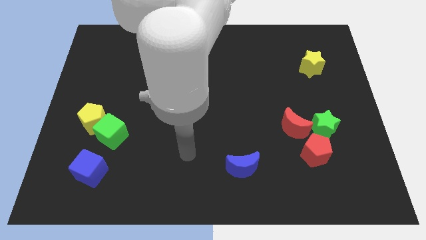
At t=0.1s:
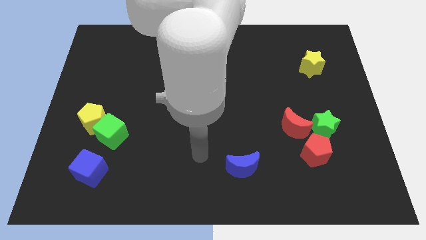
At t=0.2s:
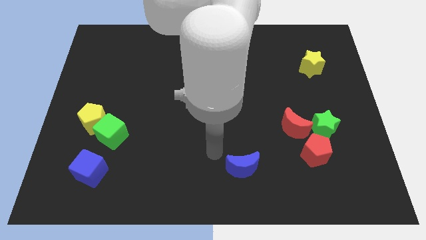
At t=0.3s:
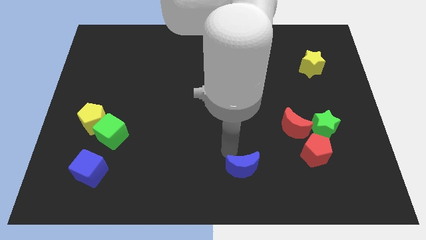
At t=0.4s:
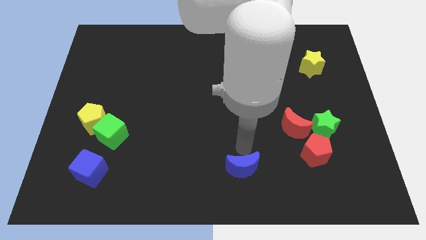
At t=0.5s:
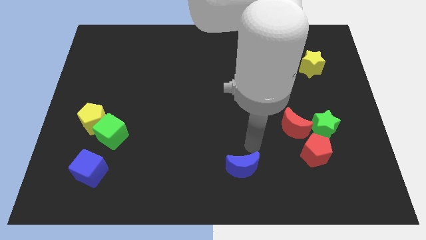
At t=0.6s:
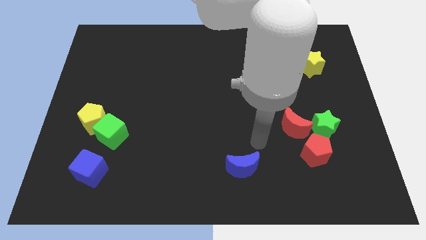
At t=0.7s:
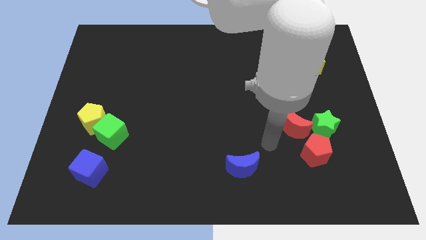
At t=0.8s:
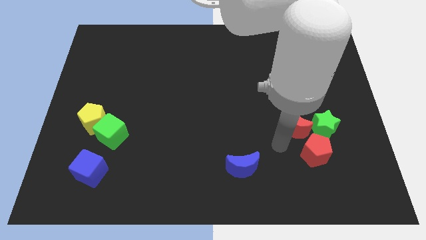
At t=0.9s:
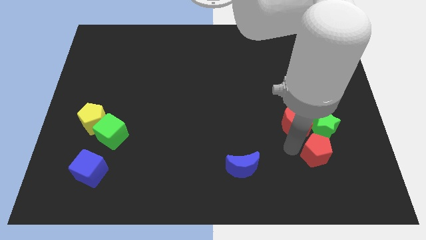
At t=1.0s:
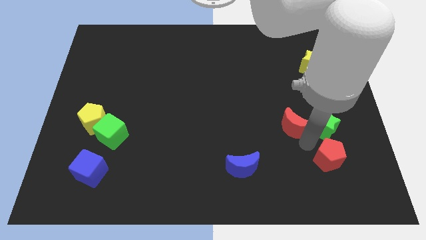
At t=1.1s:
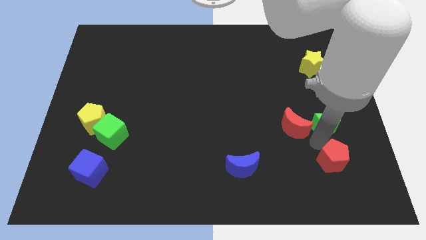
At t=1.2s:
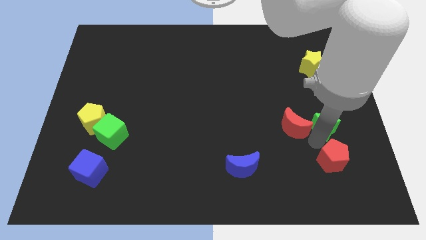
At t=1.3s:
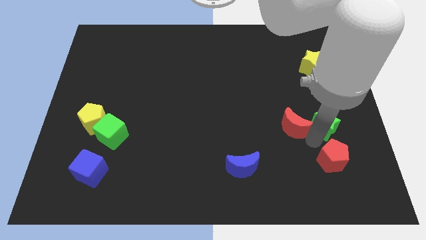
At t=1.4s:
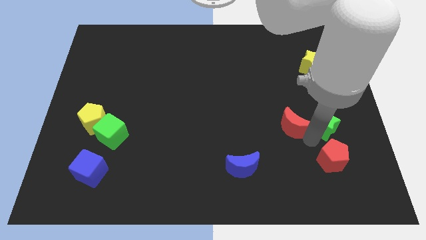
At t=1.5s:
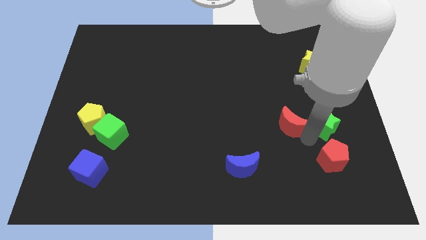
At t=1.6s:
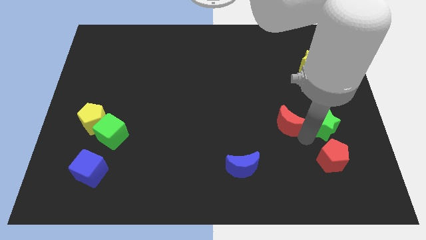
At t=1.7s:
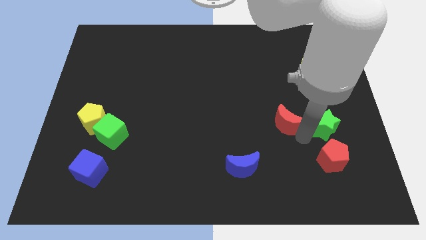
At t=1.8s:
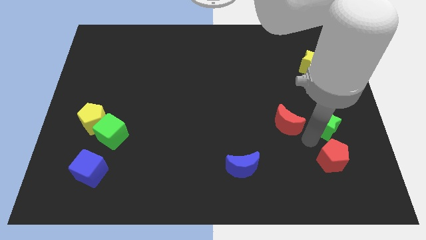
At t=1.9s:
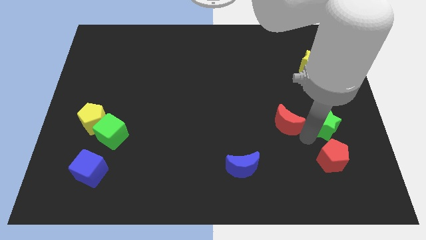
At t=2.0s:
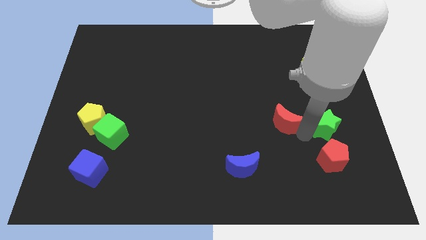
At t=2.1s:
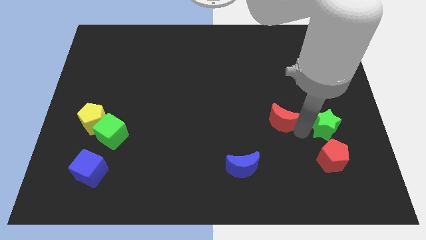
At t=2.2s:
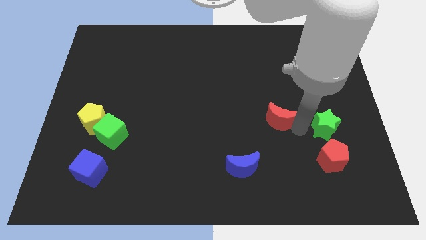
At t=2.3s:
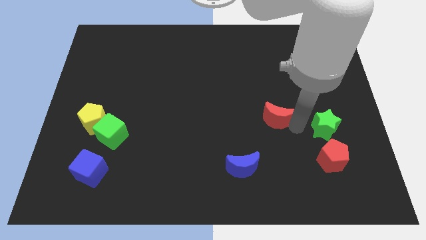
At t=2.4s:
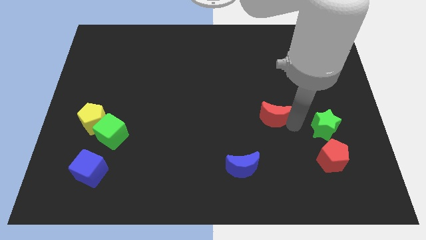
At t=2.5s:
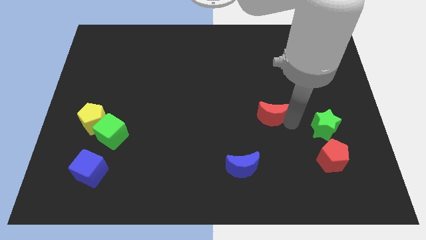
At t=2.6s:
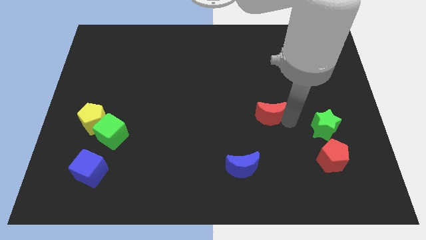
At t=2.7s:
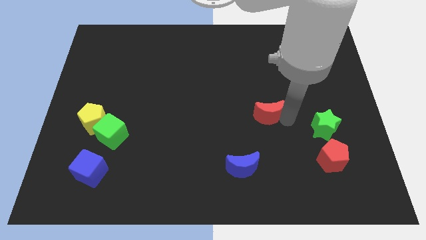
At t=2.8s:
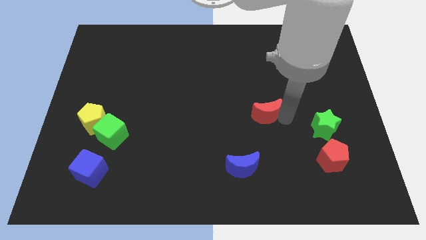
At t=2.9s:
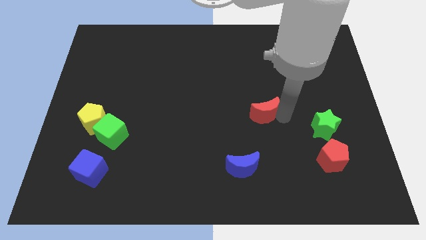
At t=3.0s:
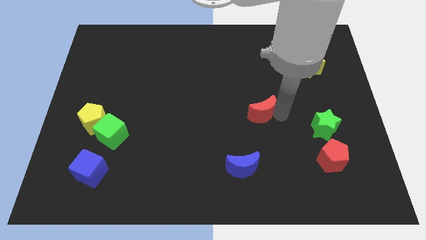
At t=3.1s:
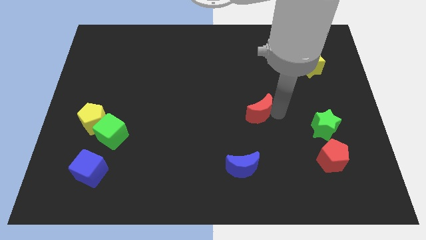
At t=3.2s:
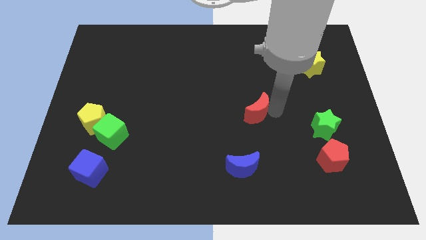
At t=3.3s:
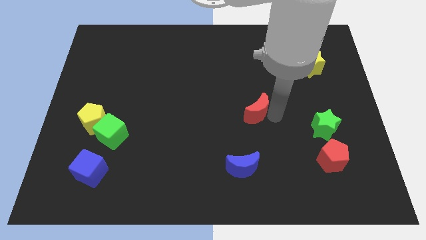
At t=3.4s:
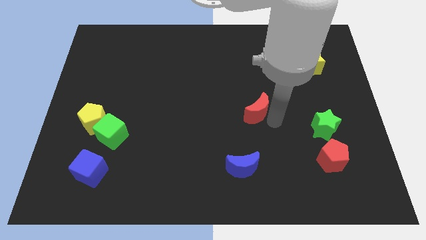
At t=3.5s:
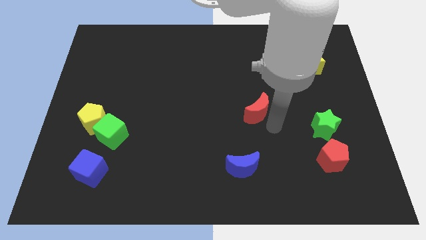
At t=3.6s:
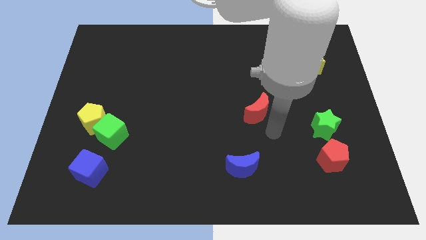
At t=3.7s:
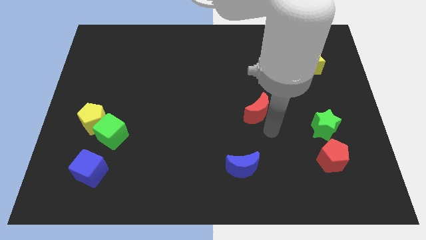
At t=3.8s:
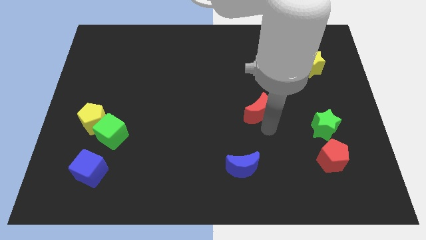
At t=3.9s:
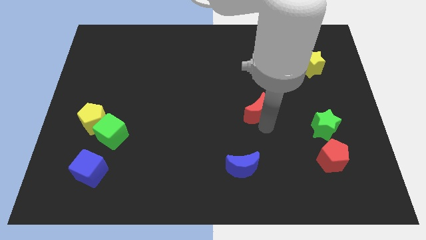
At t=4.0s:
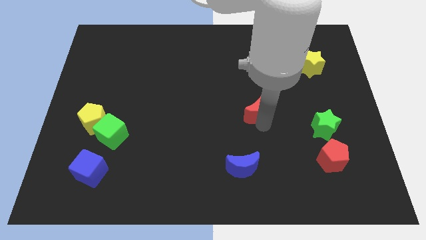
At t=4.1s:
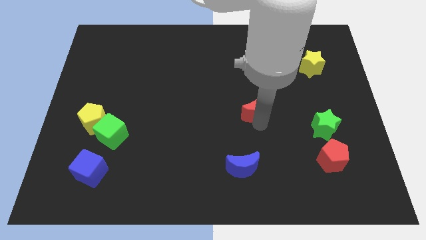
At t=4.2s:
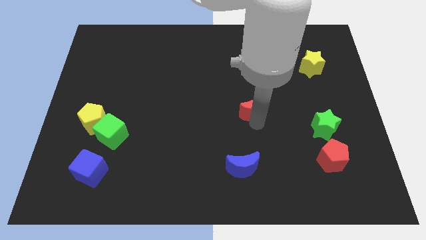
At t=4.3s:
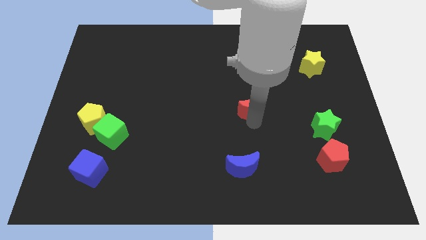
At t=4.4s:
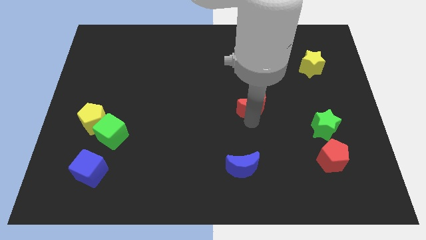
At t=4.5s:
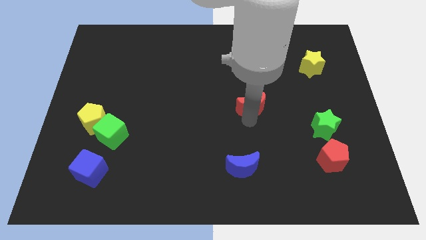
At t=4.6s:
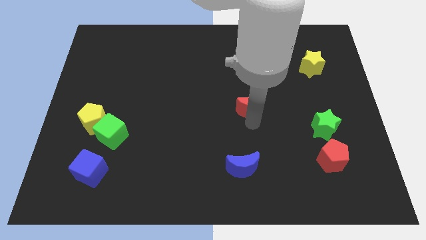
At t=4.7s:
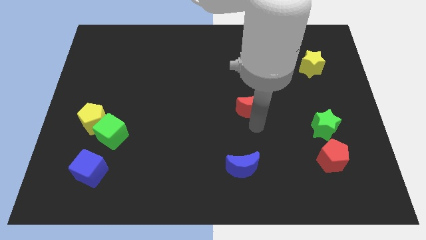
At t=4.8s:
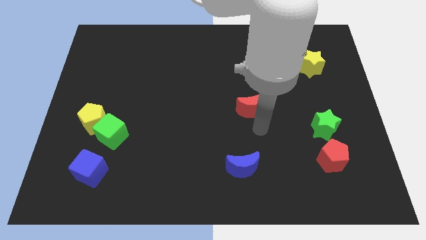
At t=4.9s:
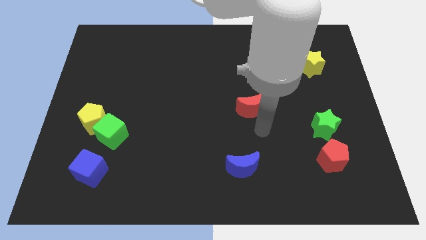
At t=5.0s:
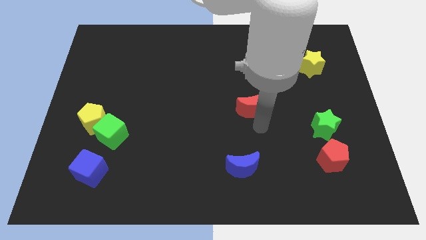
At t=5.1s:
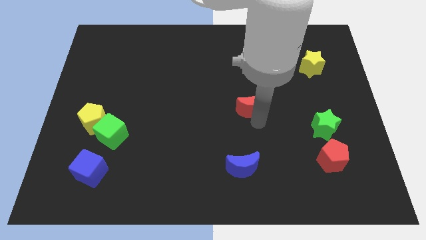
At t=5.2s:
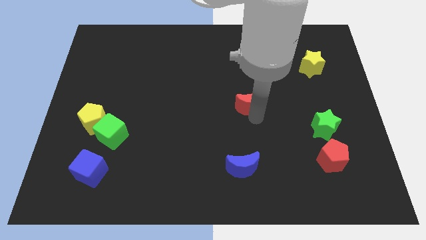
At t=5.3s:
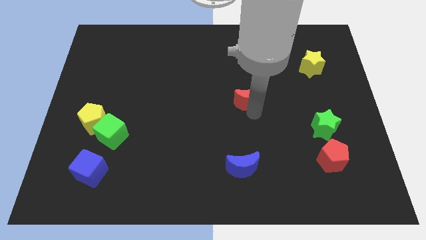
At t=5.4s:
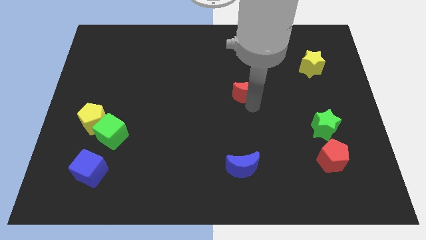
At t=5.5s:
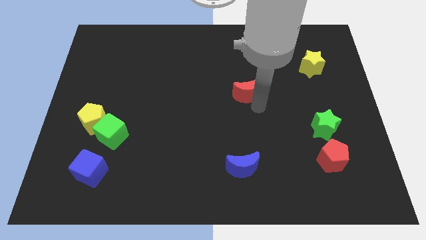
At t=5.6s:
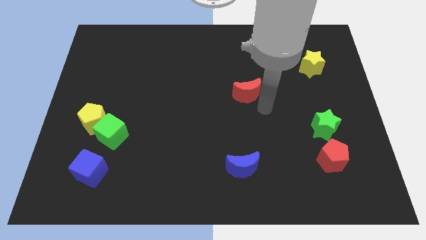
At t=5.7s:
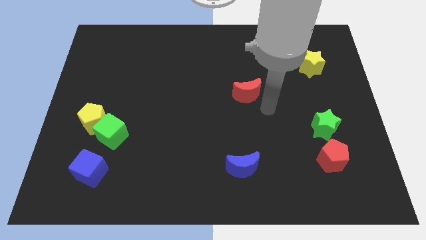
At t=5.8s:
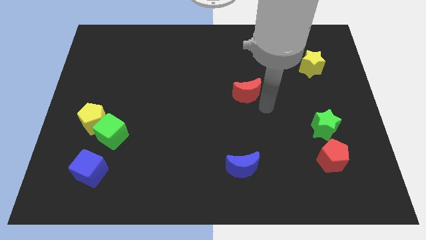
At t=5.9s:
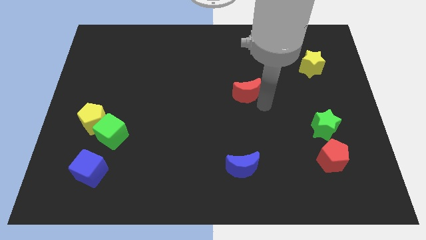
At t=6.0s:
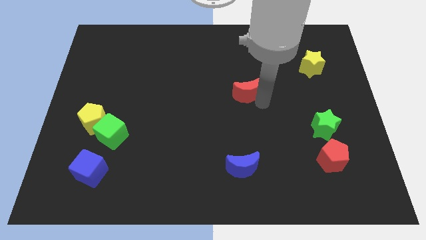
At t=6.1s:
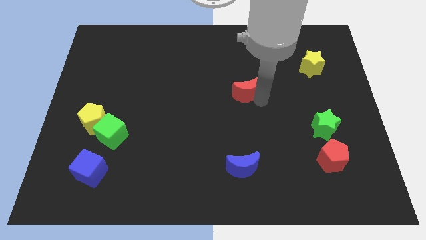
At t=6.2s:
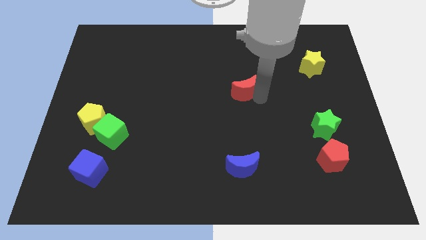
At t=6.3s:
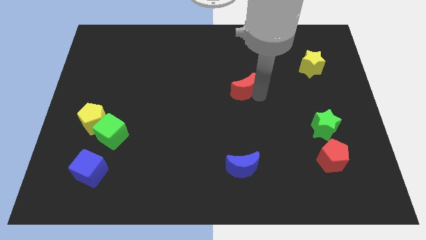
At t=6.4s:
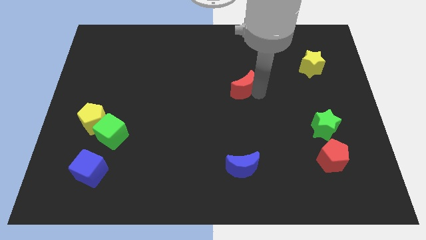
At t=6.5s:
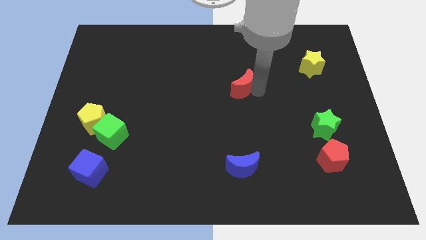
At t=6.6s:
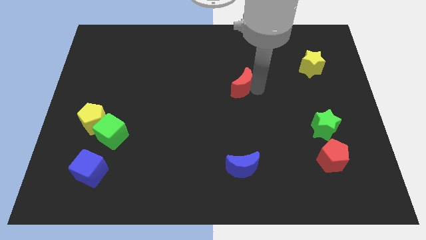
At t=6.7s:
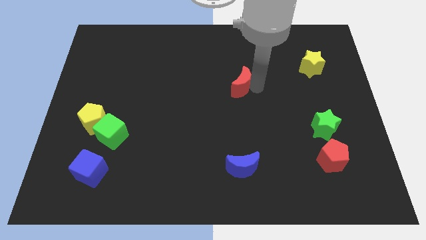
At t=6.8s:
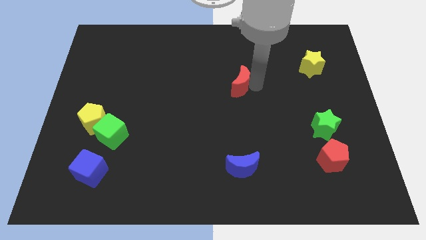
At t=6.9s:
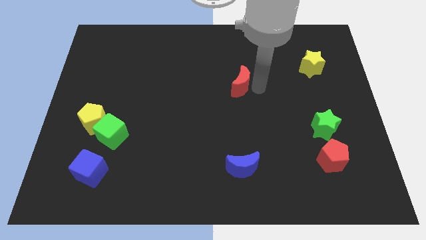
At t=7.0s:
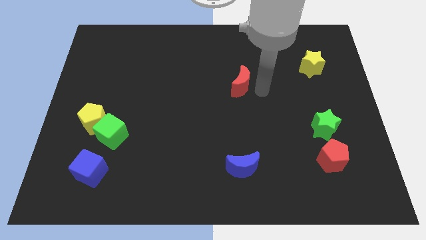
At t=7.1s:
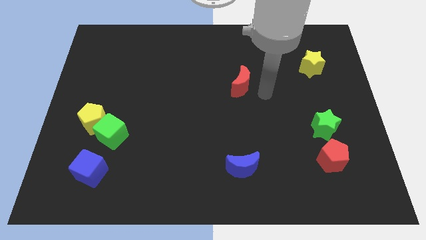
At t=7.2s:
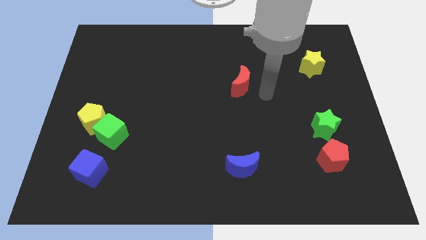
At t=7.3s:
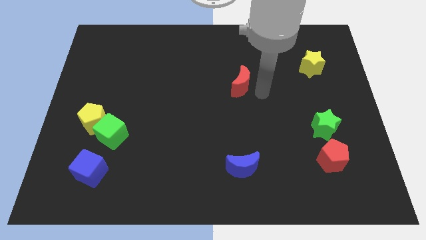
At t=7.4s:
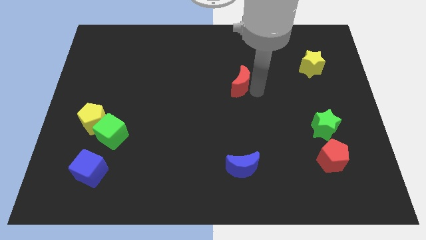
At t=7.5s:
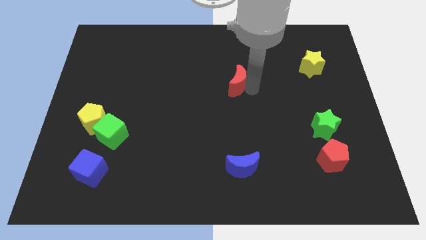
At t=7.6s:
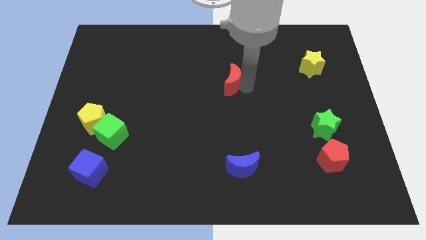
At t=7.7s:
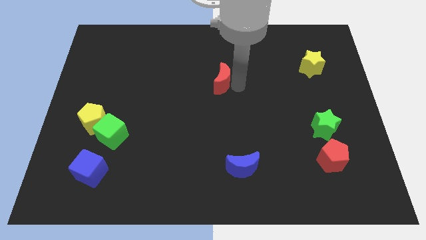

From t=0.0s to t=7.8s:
push the red moon up and left

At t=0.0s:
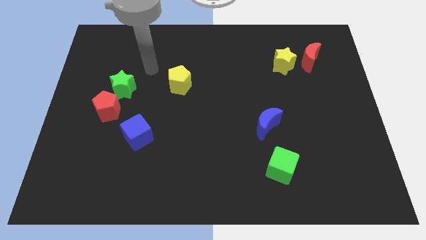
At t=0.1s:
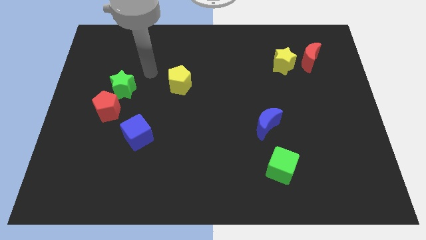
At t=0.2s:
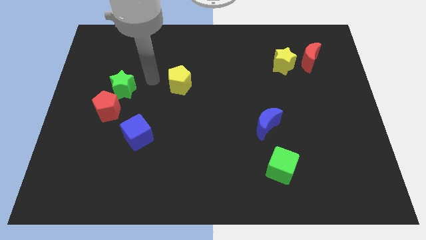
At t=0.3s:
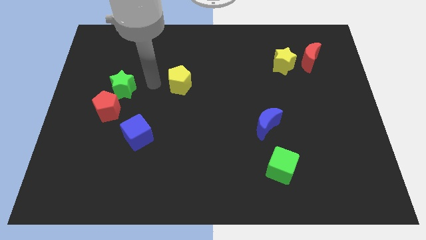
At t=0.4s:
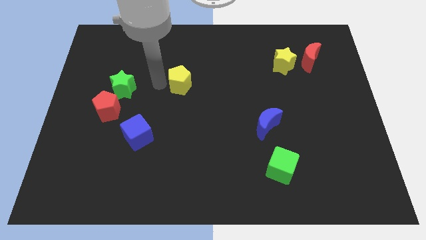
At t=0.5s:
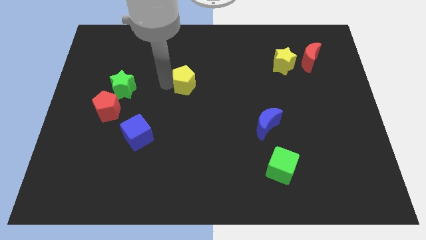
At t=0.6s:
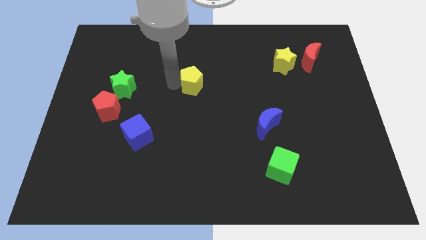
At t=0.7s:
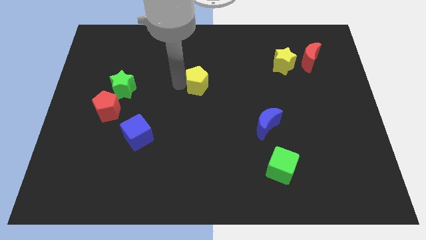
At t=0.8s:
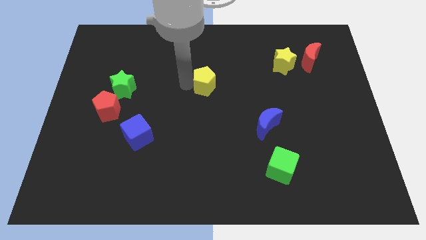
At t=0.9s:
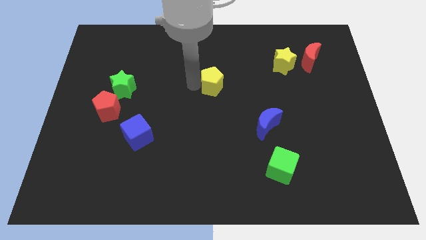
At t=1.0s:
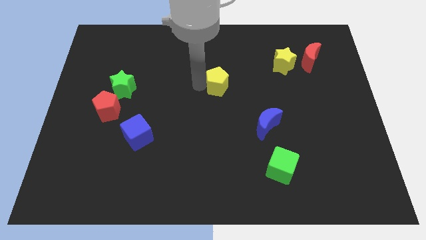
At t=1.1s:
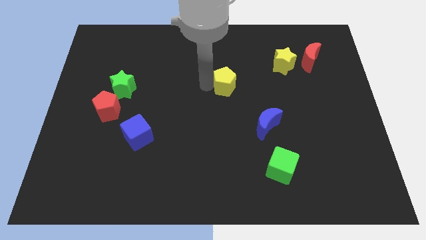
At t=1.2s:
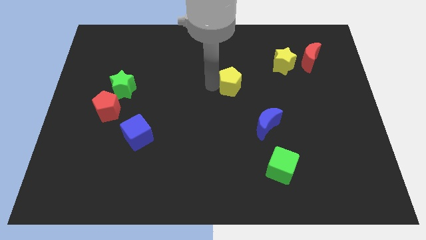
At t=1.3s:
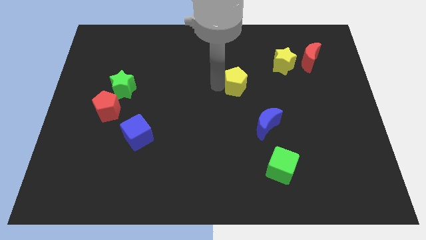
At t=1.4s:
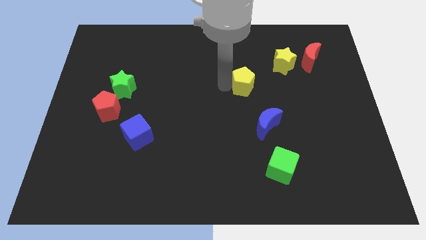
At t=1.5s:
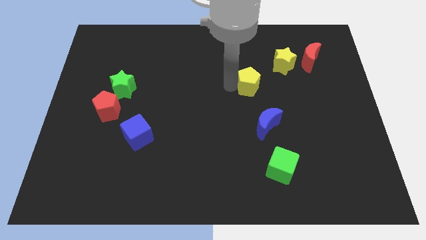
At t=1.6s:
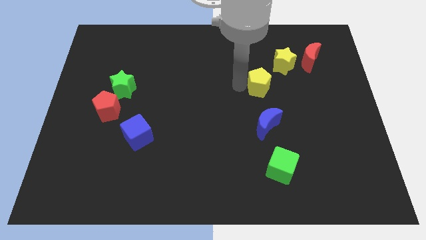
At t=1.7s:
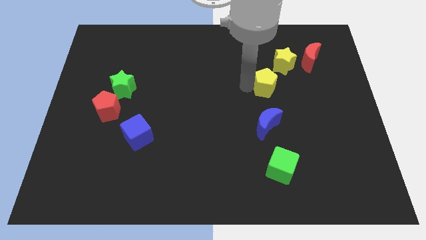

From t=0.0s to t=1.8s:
push the yellow pentagon to the right
